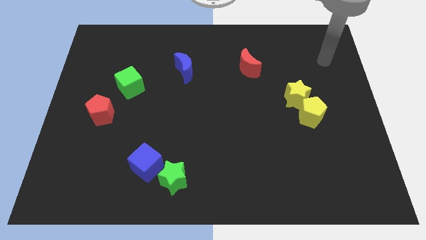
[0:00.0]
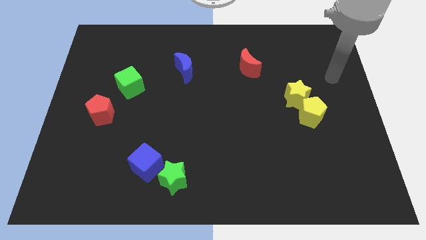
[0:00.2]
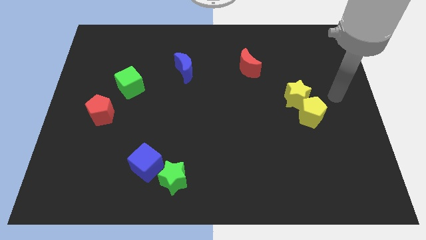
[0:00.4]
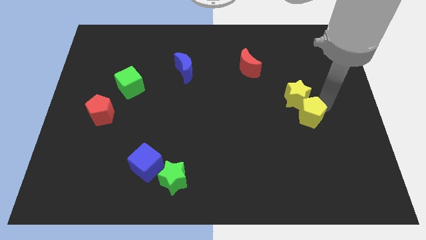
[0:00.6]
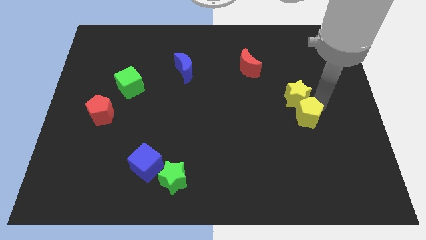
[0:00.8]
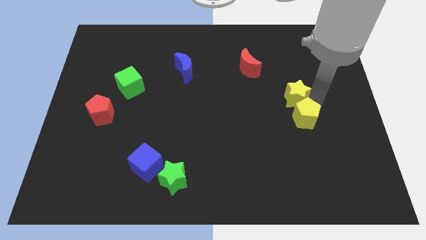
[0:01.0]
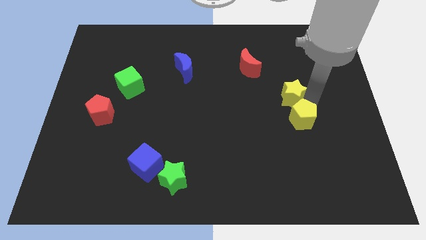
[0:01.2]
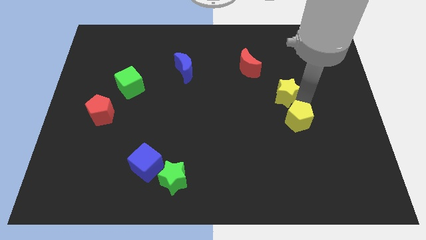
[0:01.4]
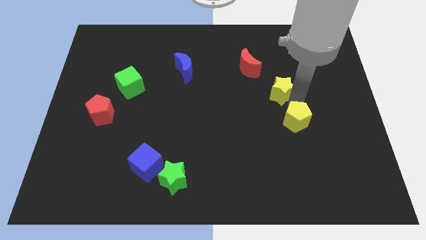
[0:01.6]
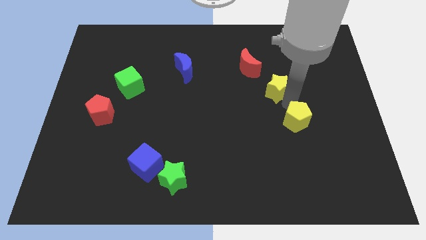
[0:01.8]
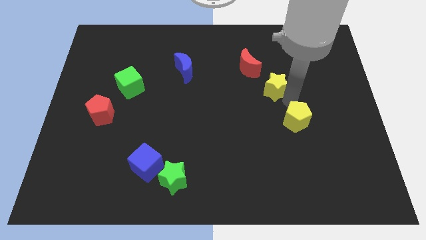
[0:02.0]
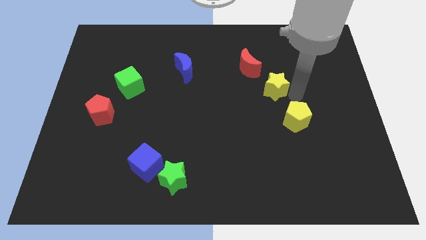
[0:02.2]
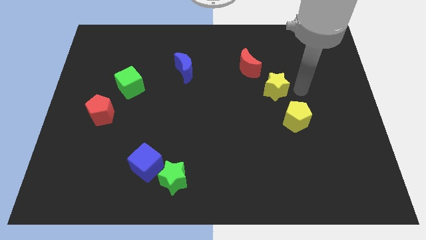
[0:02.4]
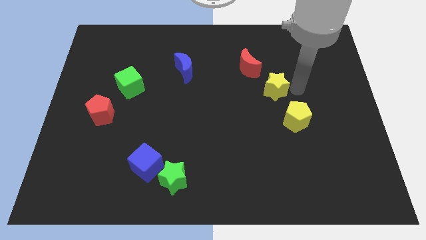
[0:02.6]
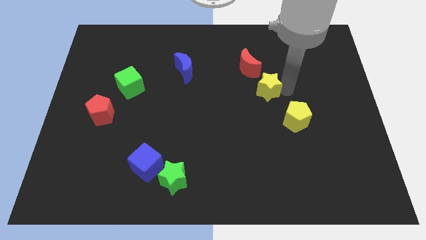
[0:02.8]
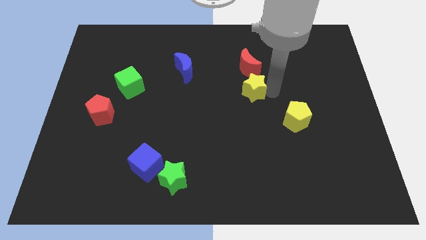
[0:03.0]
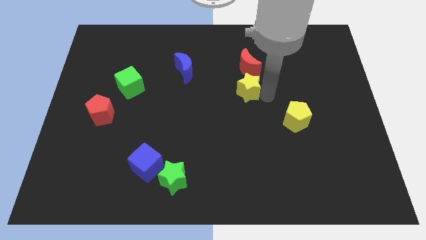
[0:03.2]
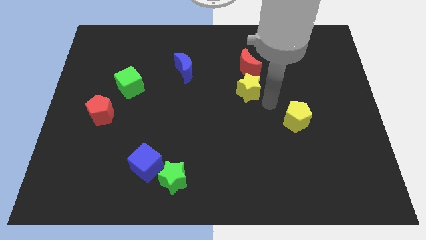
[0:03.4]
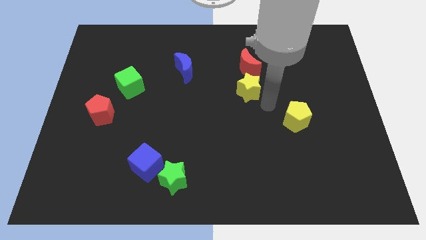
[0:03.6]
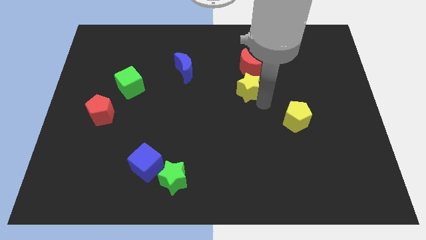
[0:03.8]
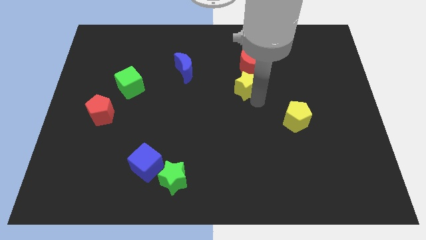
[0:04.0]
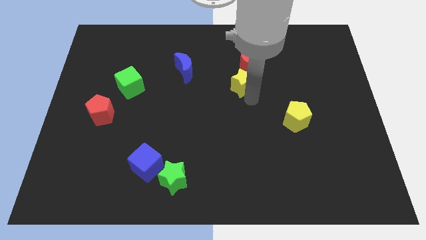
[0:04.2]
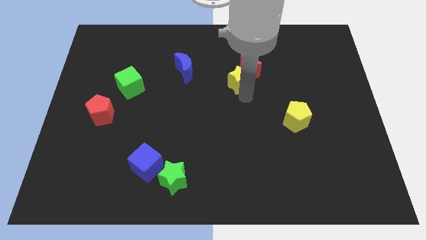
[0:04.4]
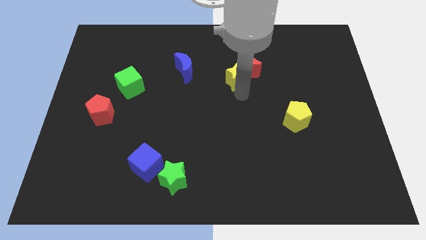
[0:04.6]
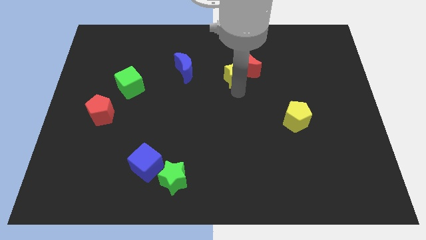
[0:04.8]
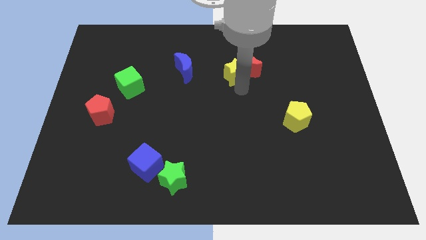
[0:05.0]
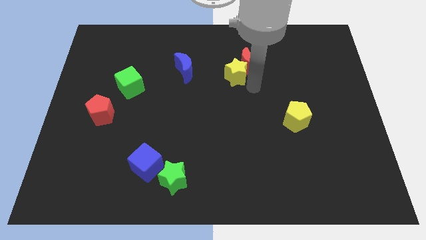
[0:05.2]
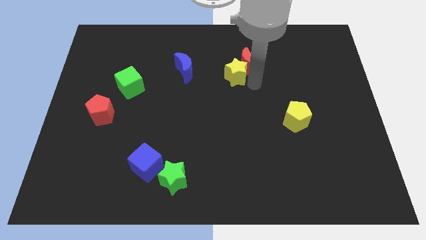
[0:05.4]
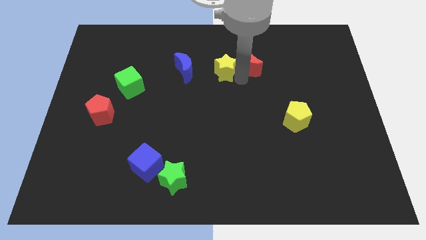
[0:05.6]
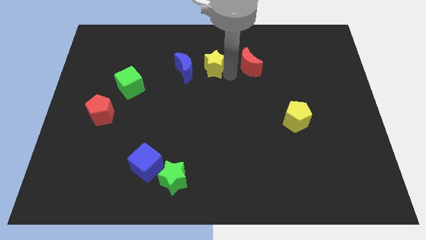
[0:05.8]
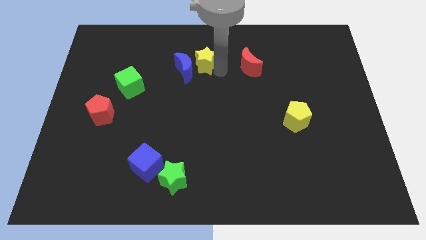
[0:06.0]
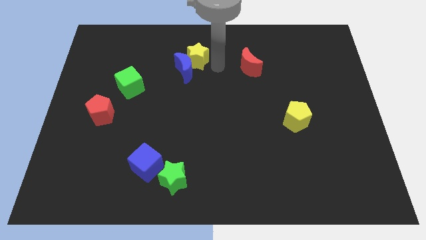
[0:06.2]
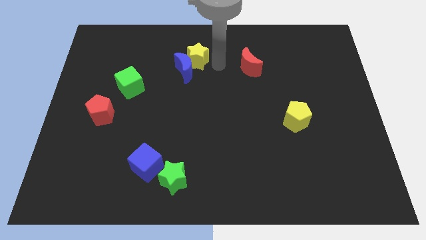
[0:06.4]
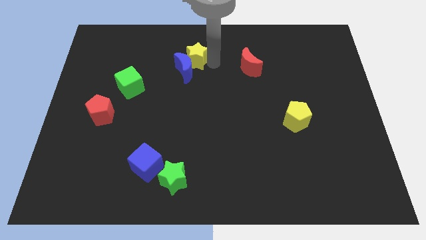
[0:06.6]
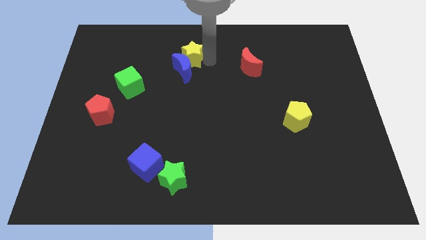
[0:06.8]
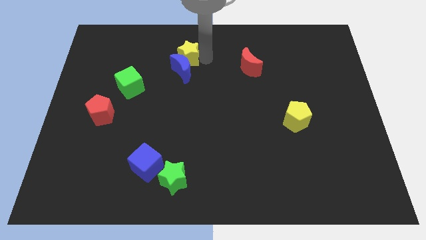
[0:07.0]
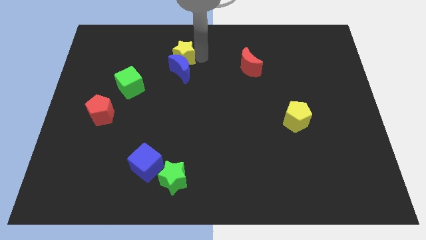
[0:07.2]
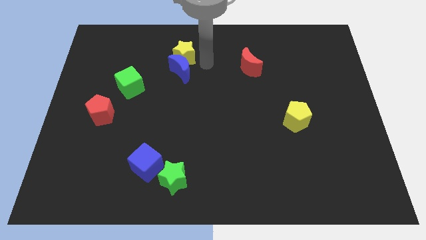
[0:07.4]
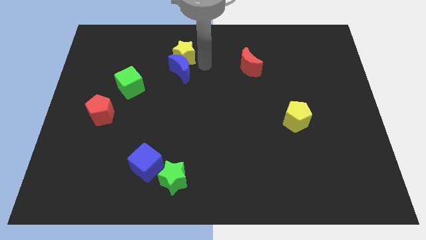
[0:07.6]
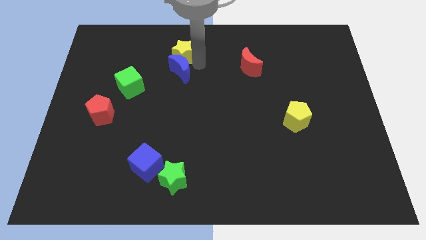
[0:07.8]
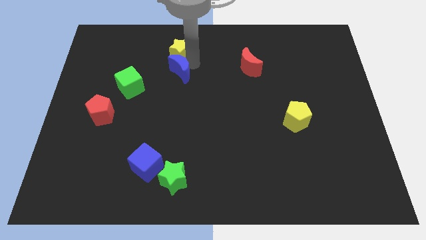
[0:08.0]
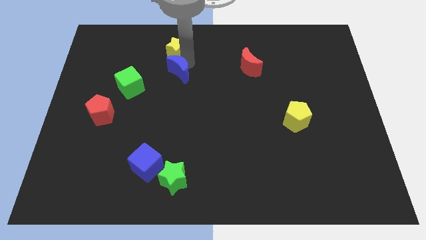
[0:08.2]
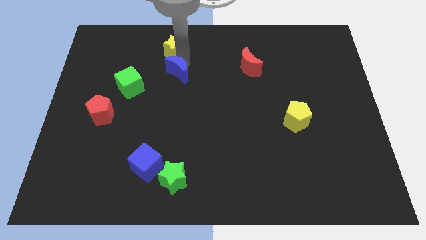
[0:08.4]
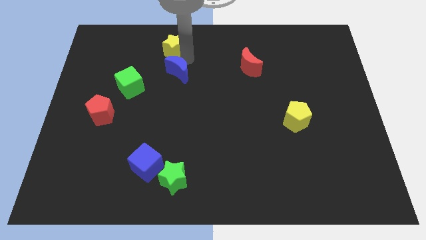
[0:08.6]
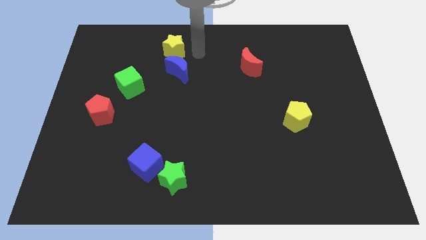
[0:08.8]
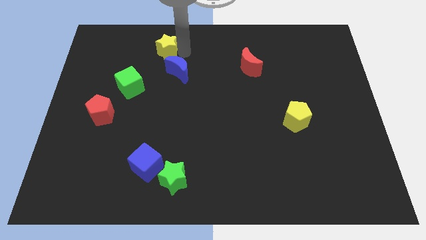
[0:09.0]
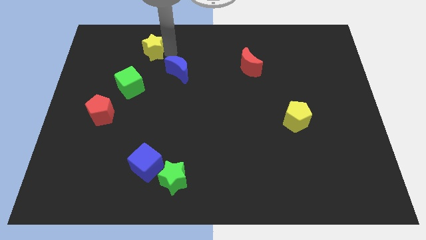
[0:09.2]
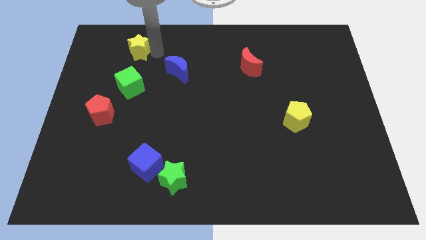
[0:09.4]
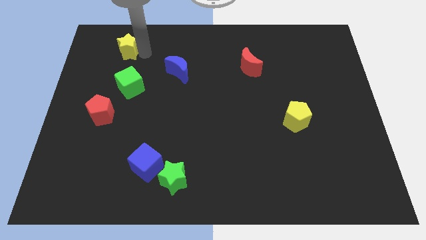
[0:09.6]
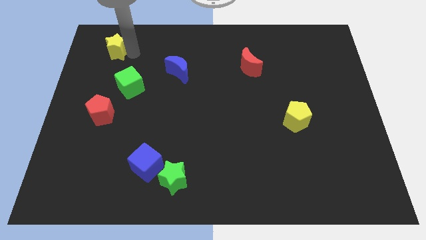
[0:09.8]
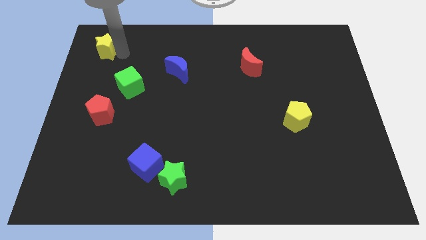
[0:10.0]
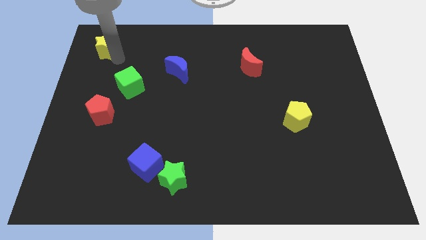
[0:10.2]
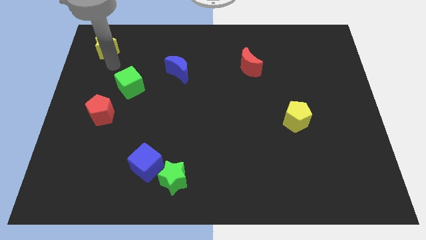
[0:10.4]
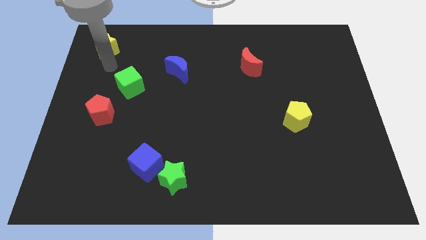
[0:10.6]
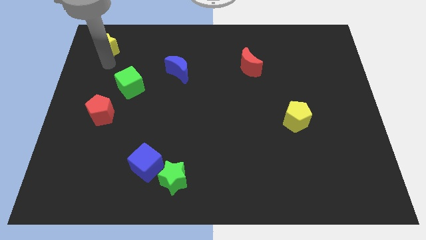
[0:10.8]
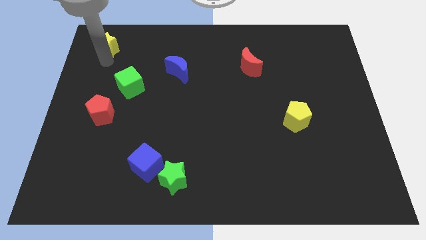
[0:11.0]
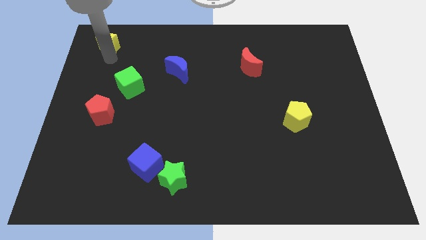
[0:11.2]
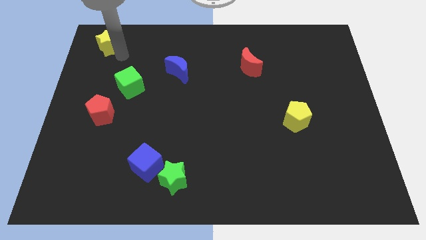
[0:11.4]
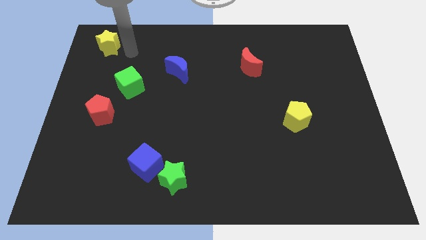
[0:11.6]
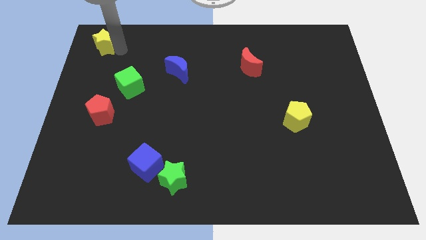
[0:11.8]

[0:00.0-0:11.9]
slide the yellow star to the top left corner

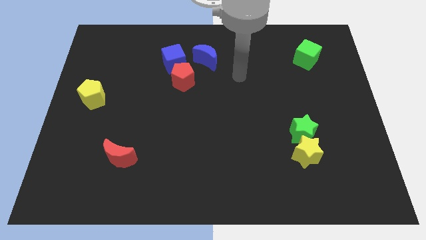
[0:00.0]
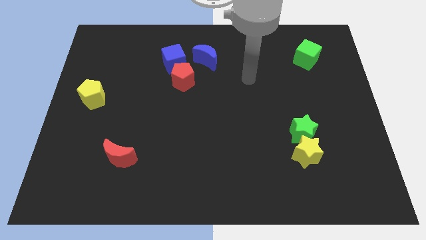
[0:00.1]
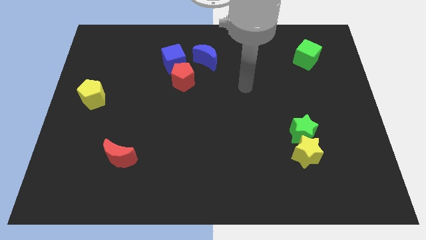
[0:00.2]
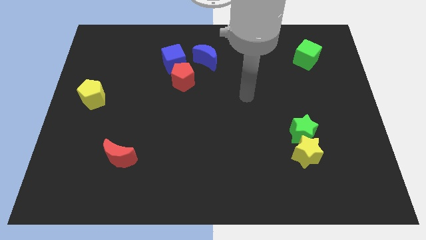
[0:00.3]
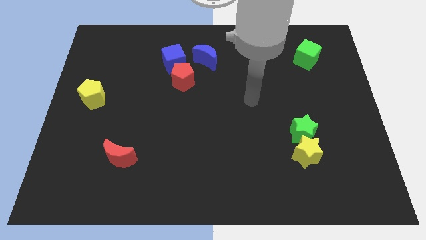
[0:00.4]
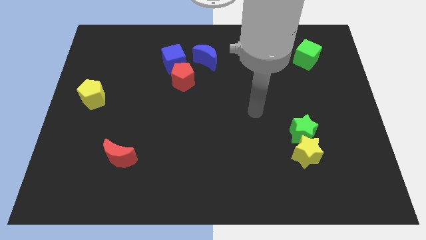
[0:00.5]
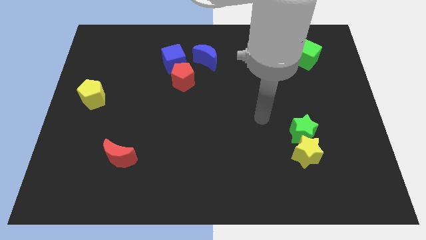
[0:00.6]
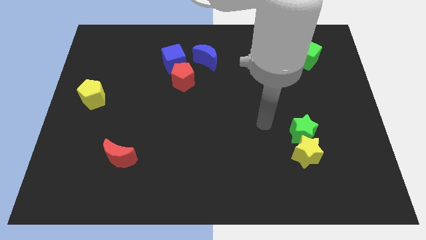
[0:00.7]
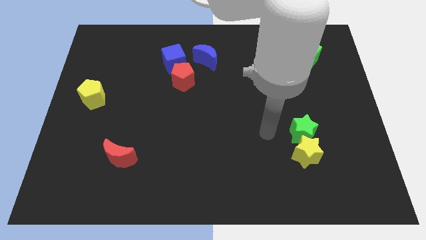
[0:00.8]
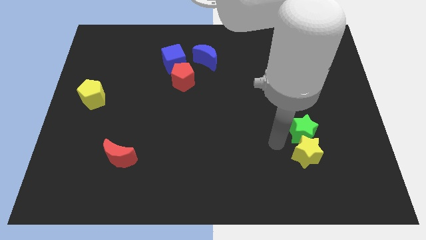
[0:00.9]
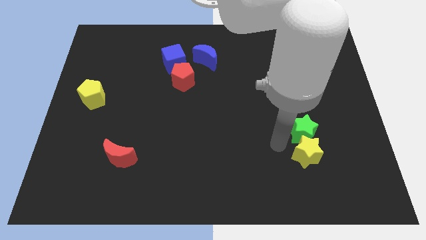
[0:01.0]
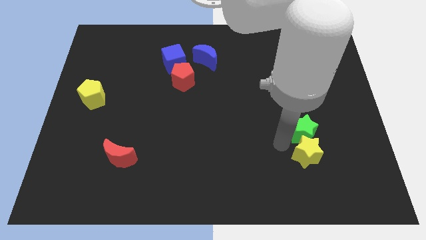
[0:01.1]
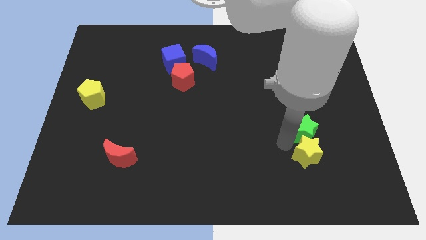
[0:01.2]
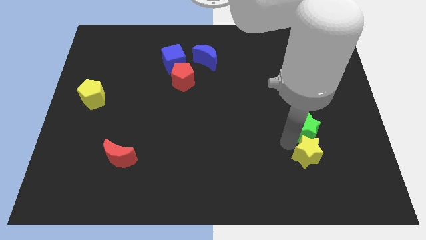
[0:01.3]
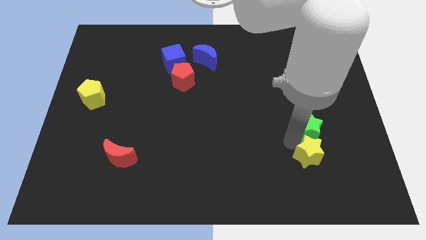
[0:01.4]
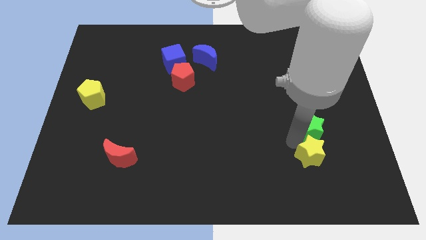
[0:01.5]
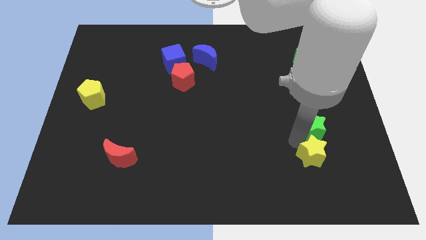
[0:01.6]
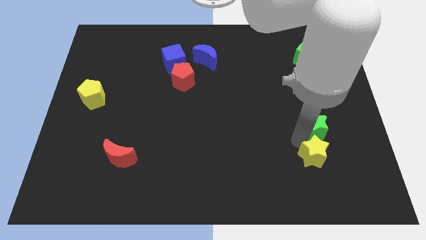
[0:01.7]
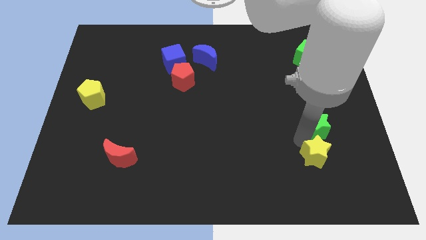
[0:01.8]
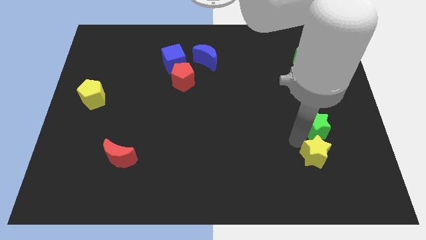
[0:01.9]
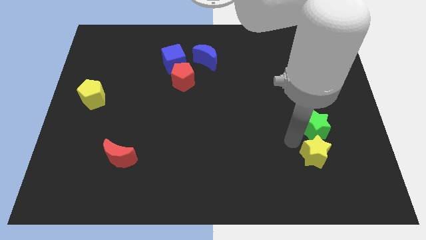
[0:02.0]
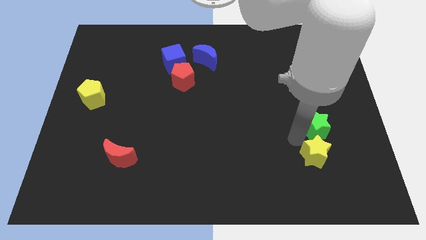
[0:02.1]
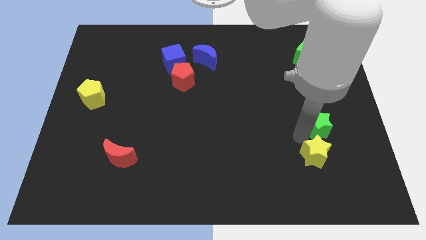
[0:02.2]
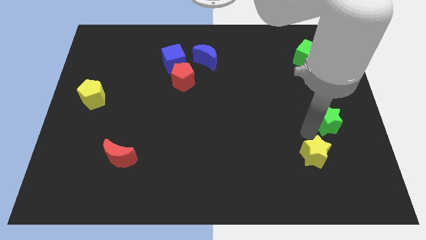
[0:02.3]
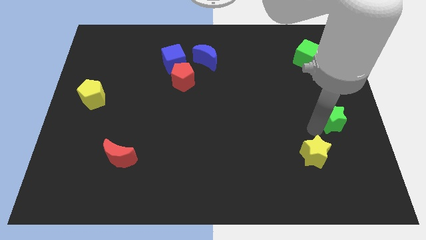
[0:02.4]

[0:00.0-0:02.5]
push the green star to the right side
